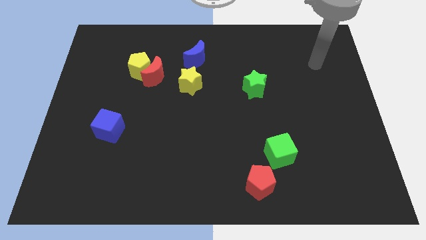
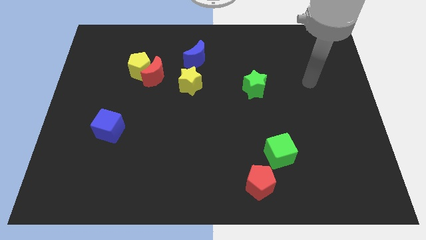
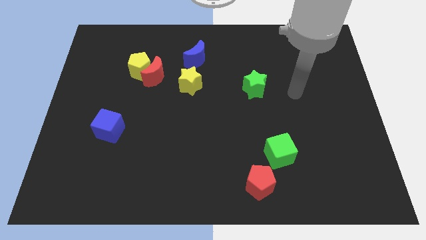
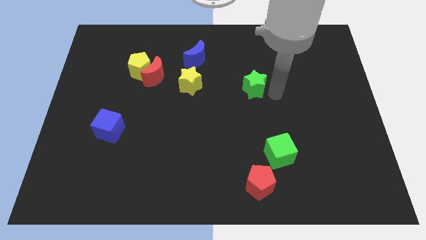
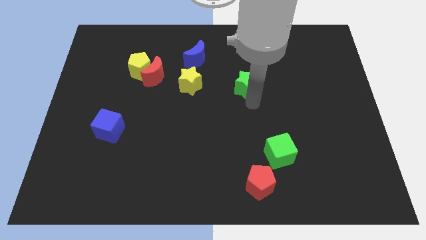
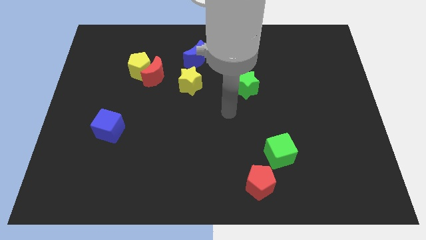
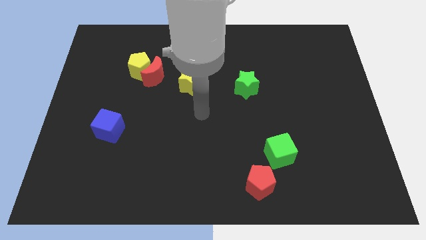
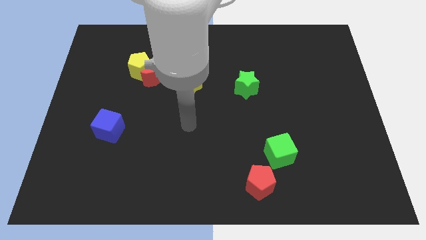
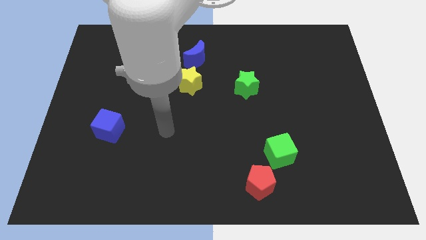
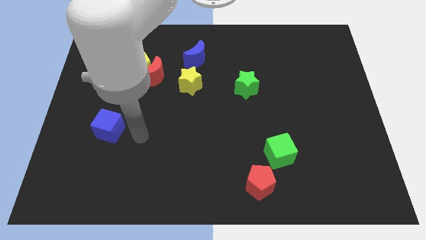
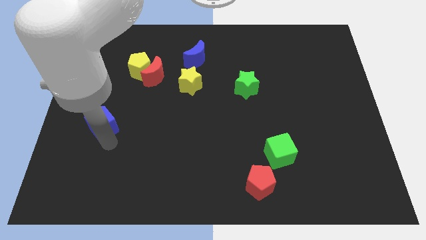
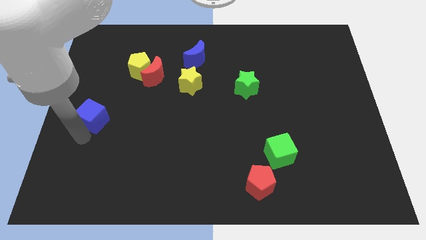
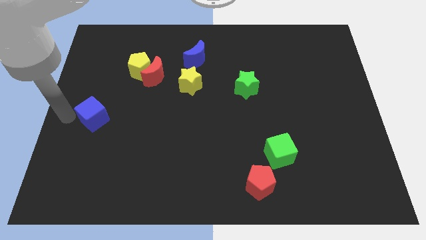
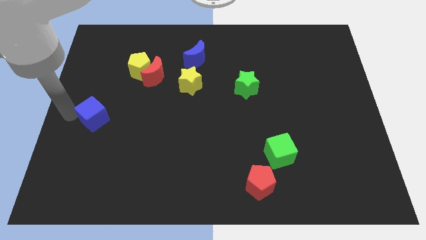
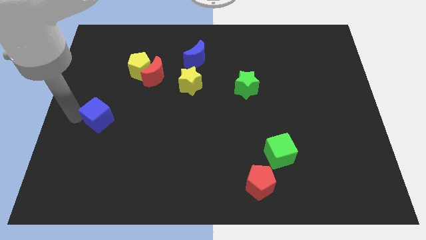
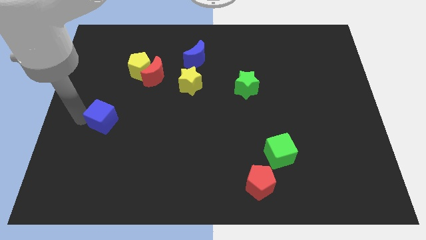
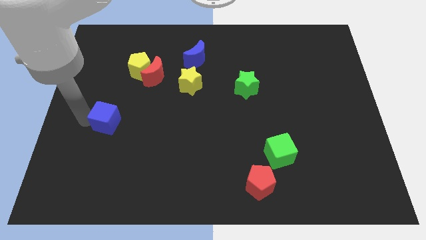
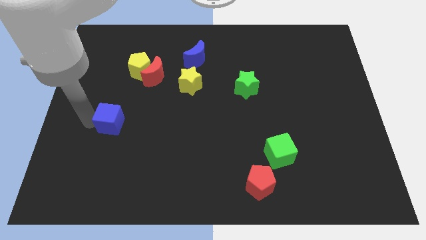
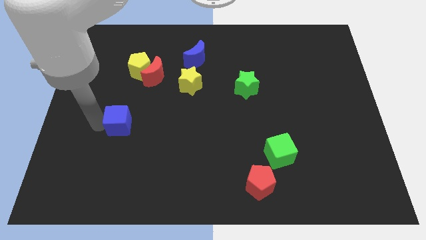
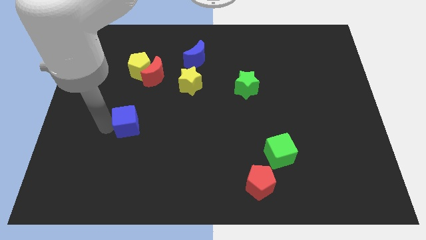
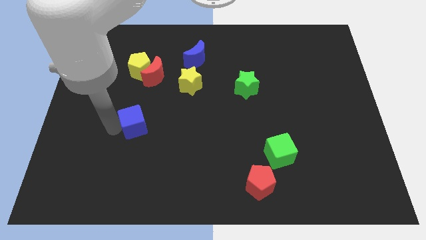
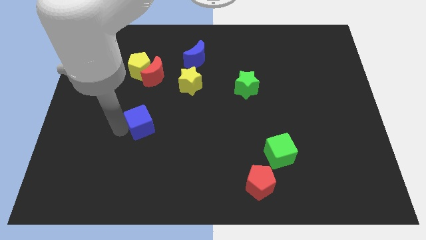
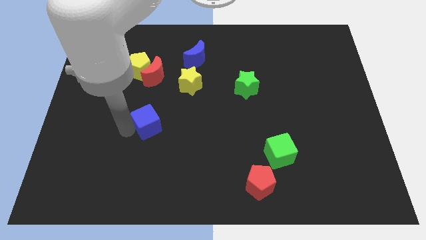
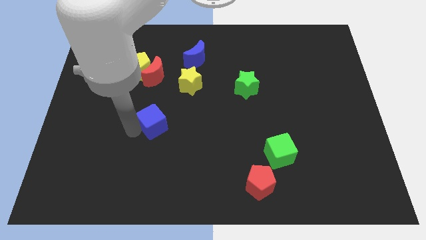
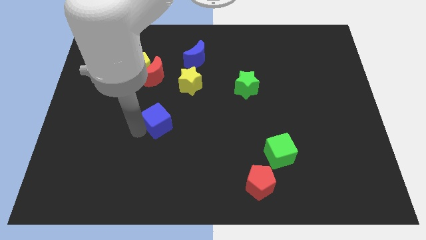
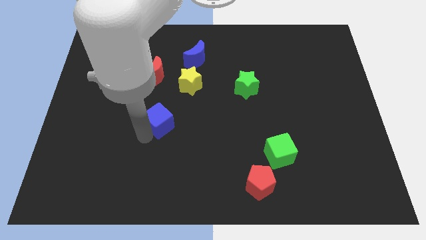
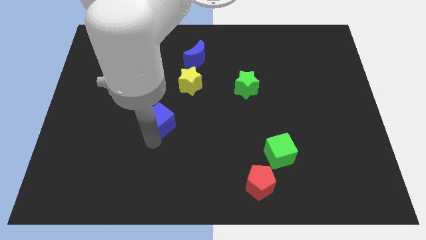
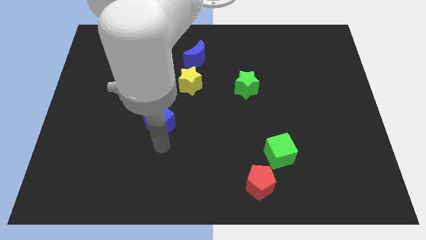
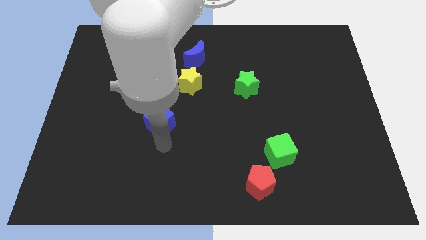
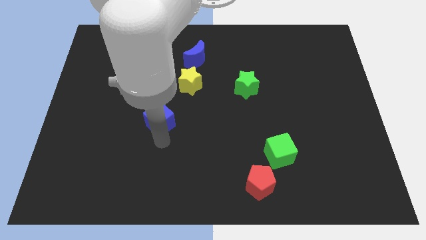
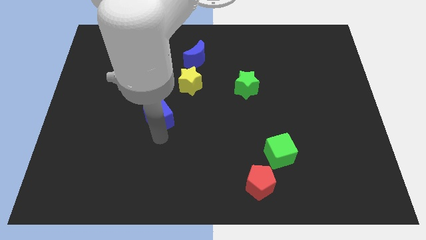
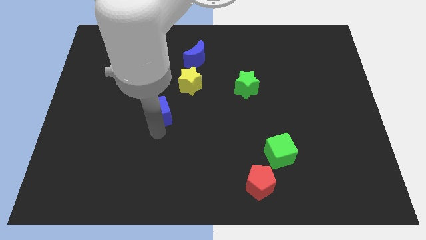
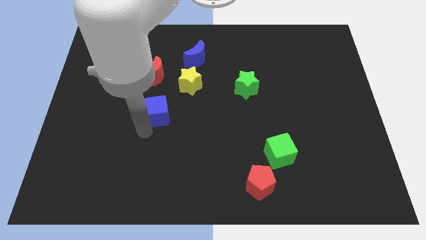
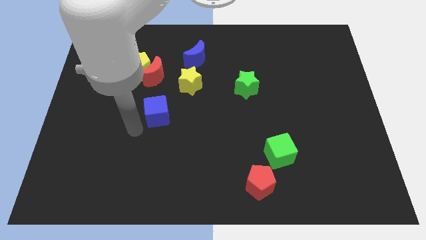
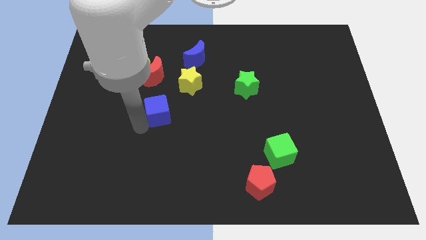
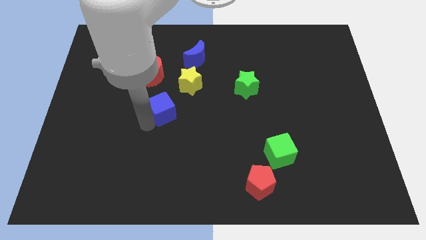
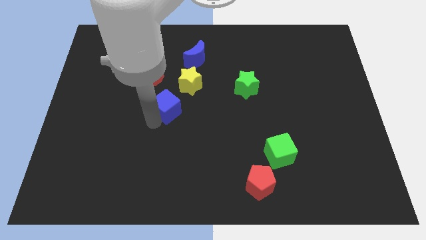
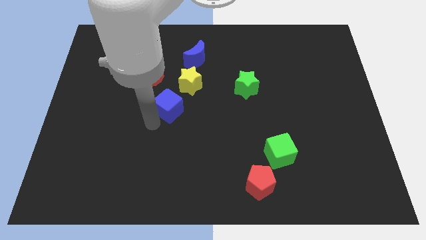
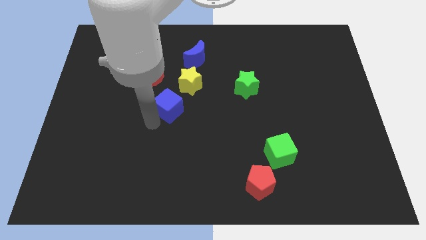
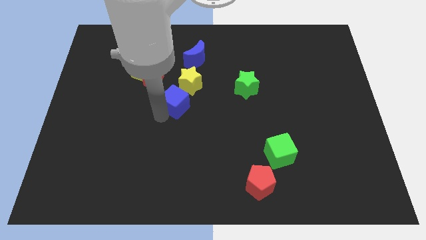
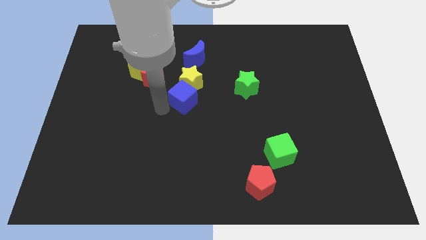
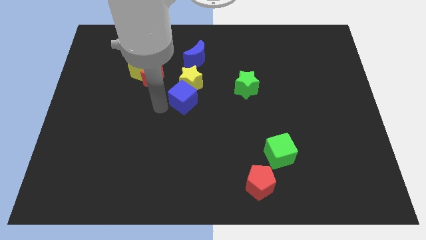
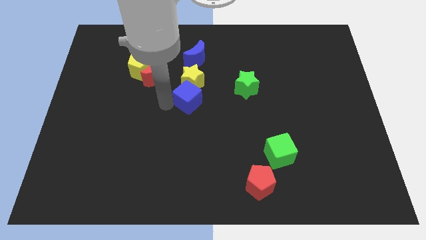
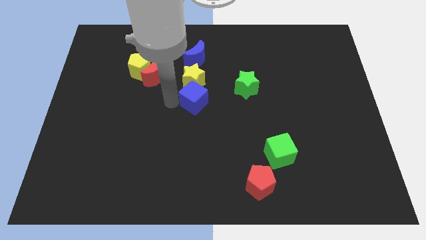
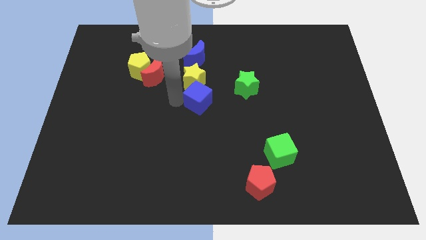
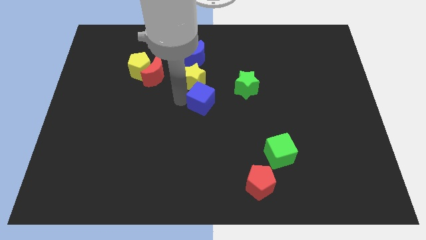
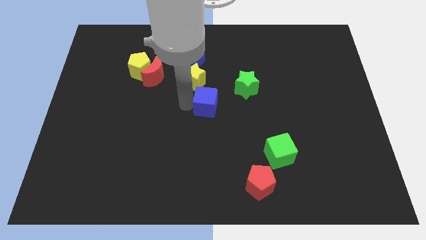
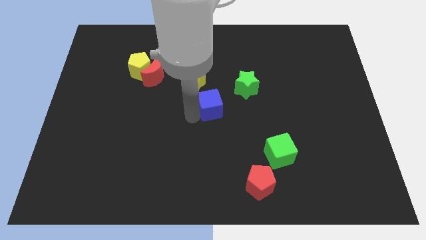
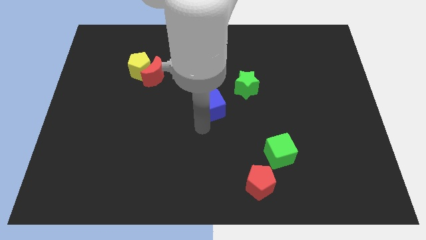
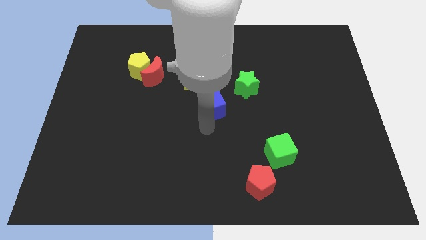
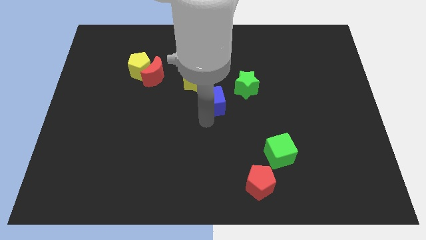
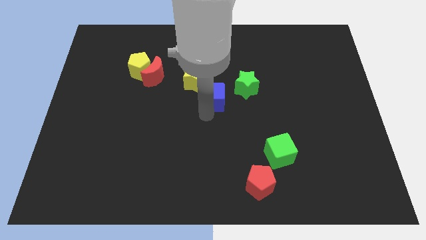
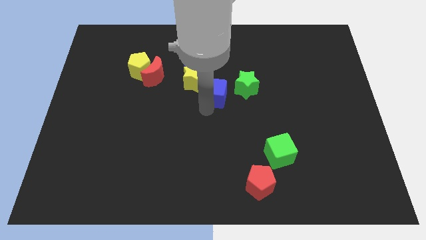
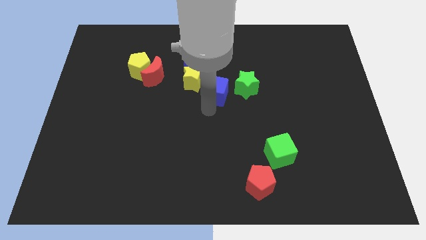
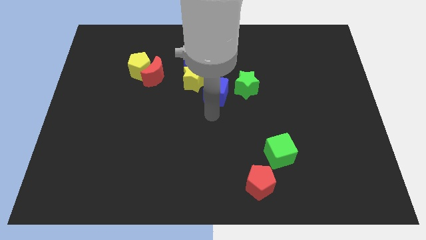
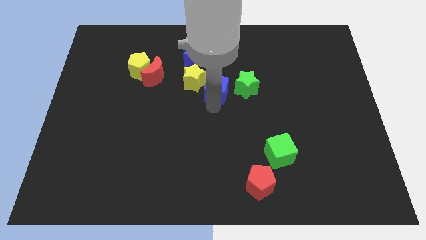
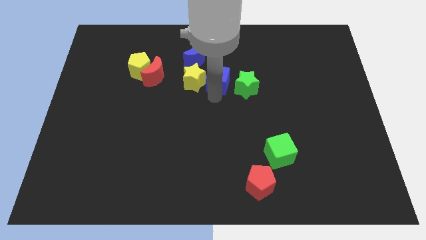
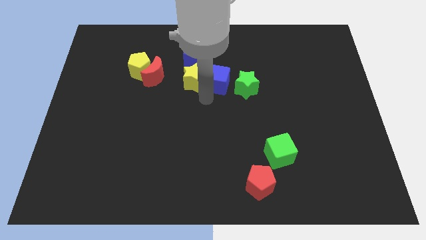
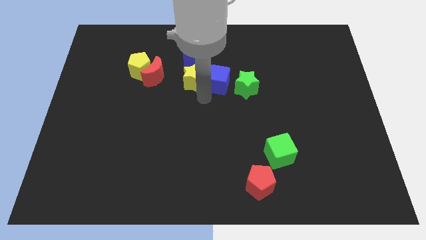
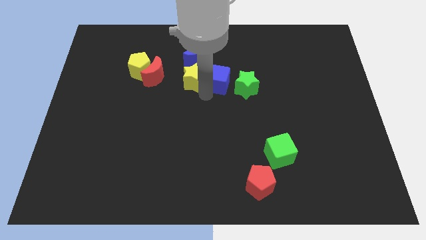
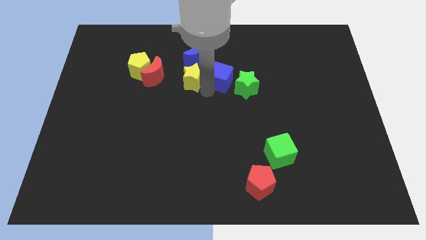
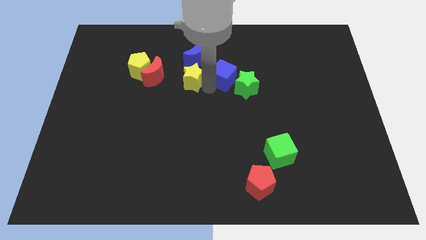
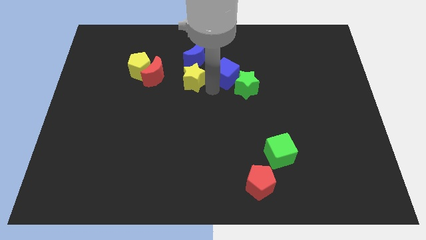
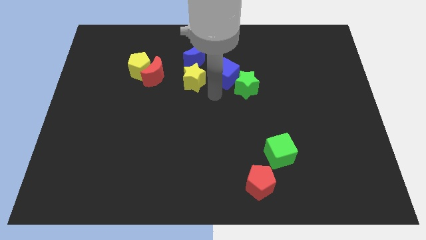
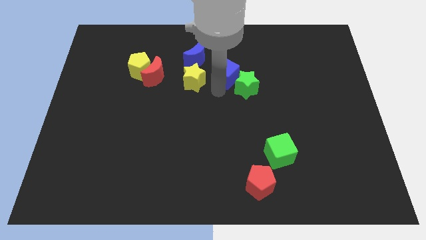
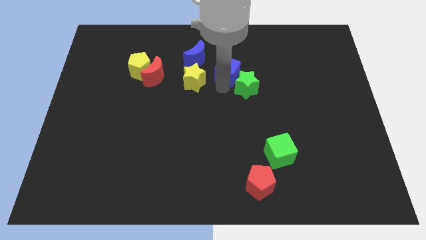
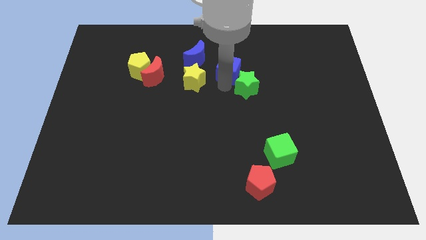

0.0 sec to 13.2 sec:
put the blue cube to the right side of the blue moon
